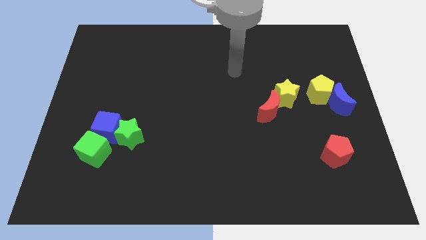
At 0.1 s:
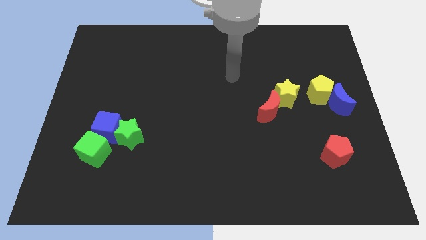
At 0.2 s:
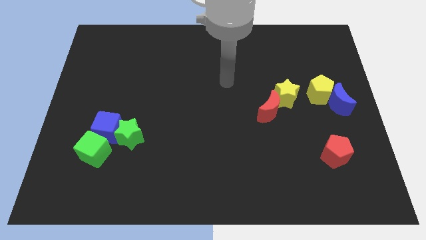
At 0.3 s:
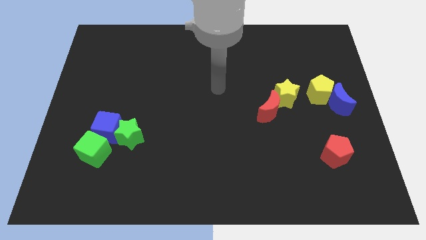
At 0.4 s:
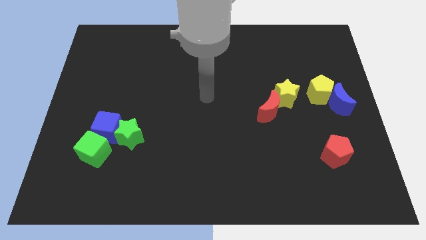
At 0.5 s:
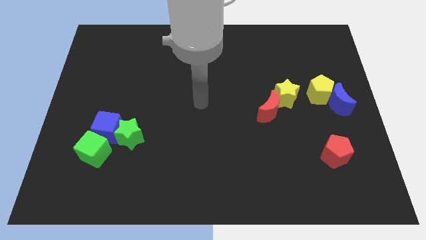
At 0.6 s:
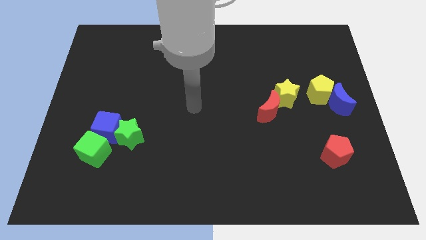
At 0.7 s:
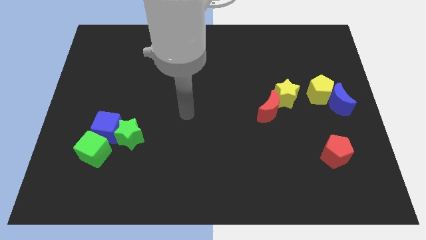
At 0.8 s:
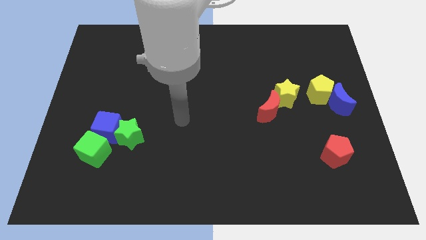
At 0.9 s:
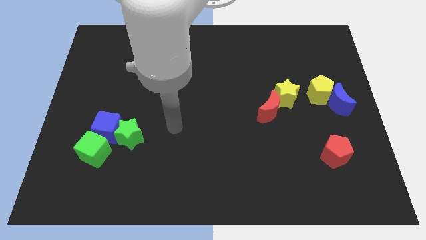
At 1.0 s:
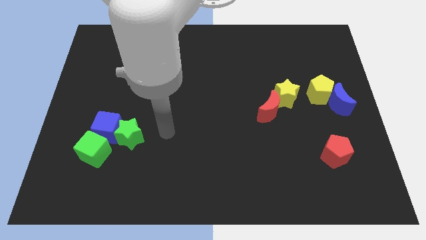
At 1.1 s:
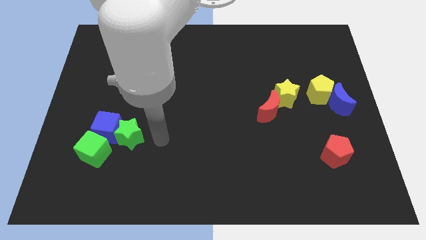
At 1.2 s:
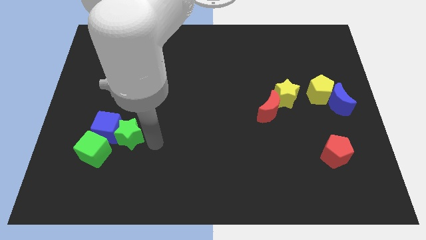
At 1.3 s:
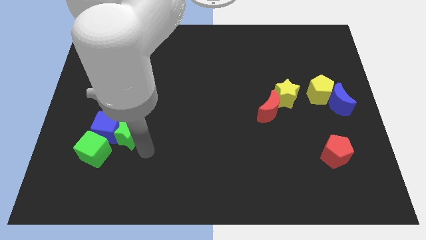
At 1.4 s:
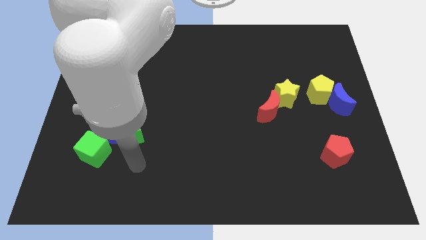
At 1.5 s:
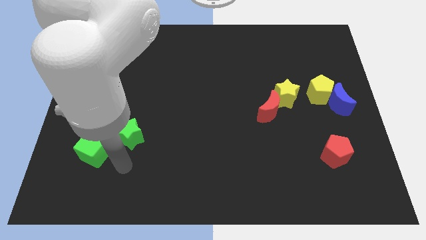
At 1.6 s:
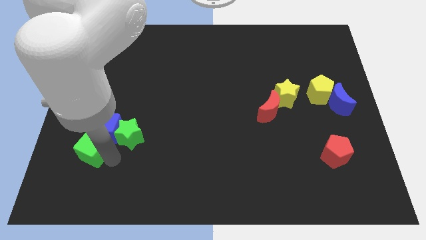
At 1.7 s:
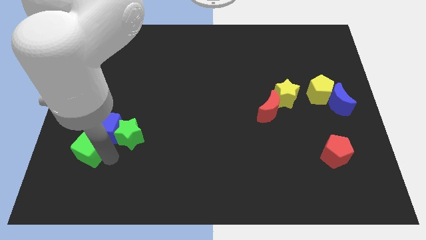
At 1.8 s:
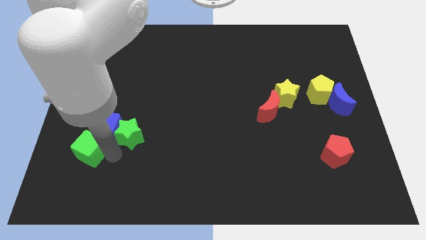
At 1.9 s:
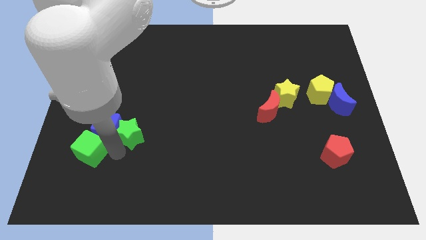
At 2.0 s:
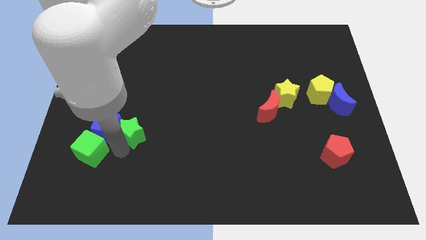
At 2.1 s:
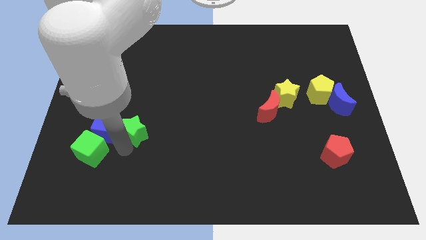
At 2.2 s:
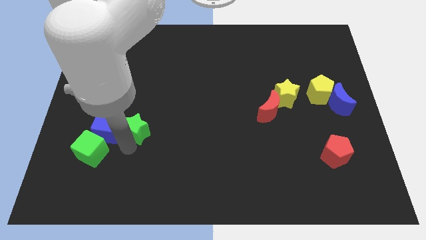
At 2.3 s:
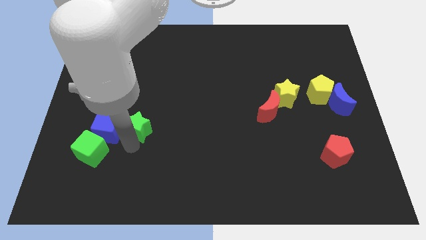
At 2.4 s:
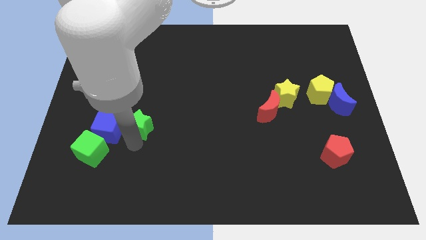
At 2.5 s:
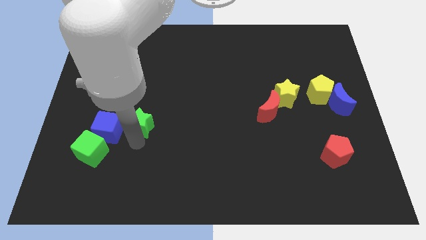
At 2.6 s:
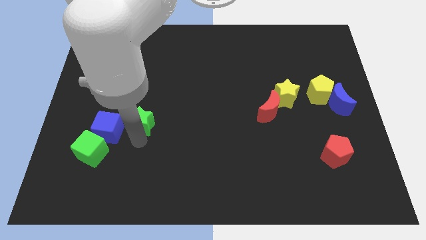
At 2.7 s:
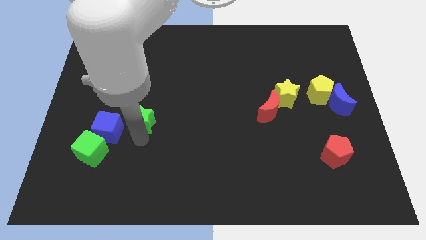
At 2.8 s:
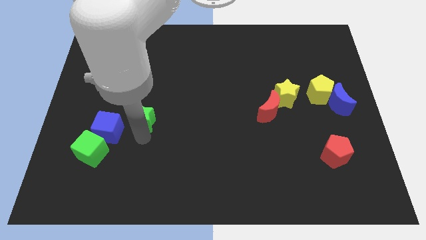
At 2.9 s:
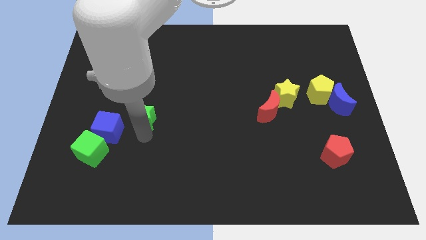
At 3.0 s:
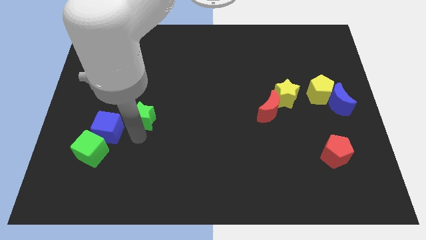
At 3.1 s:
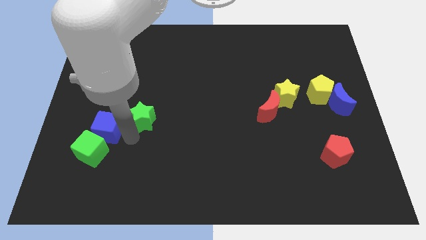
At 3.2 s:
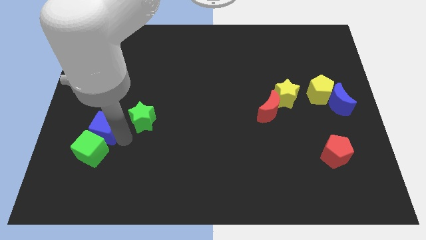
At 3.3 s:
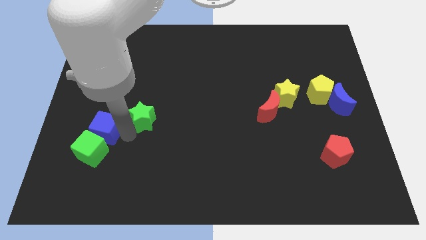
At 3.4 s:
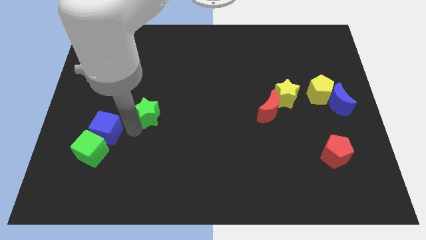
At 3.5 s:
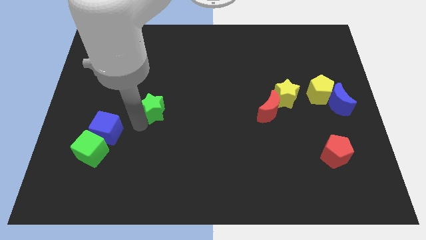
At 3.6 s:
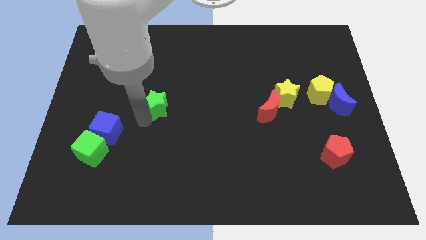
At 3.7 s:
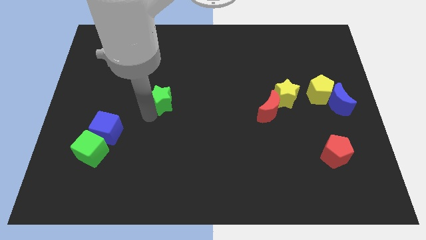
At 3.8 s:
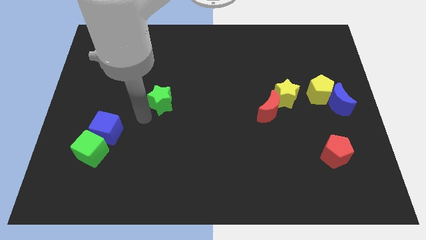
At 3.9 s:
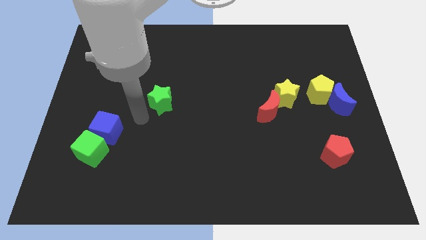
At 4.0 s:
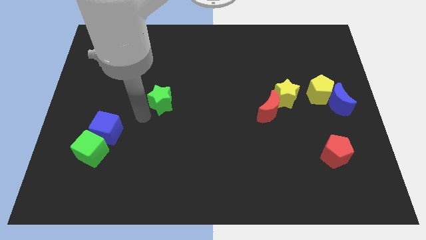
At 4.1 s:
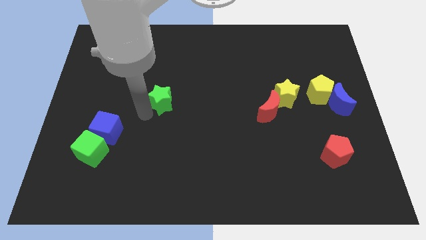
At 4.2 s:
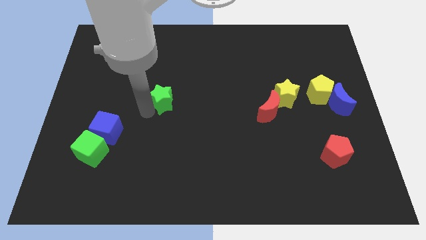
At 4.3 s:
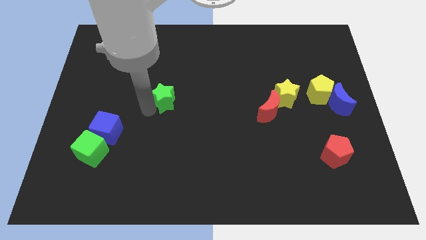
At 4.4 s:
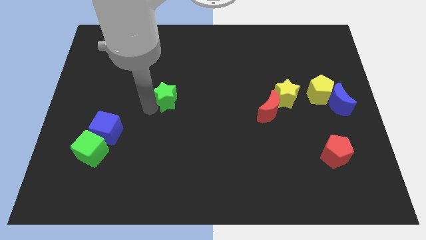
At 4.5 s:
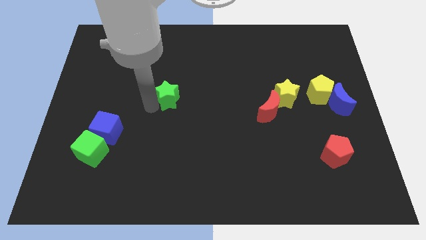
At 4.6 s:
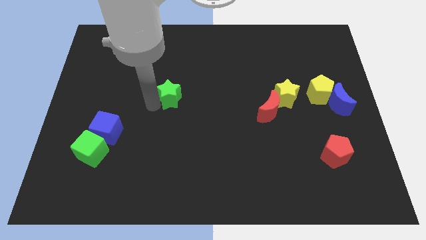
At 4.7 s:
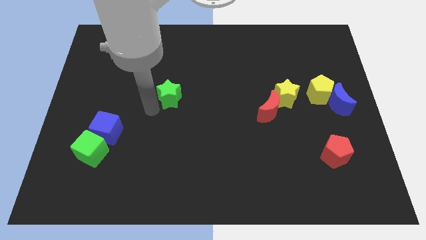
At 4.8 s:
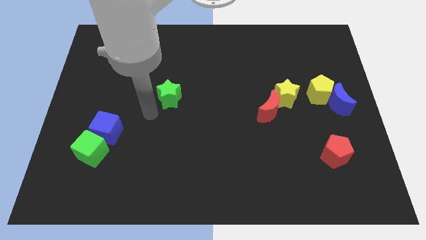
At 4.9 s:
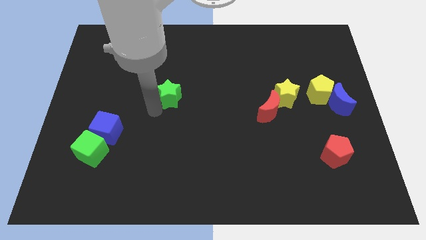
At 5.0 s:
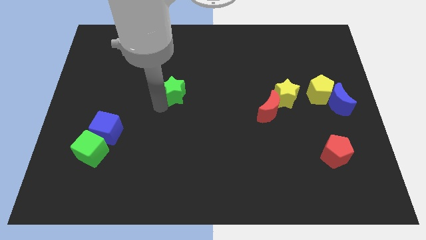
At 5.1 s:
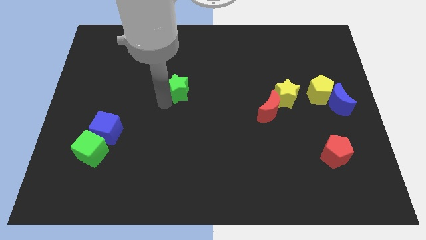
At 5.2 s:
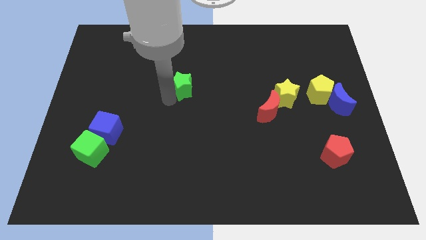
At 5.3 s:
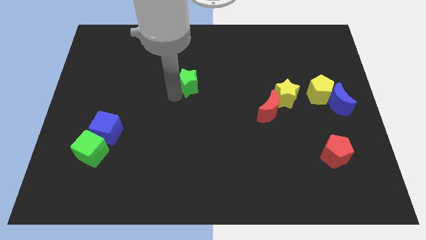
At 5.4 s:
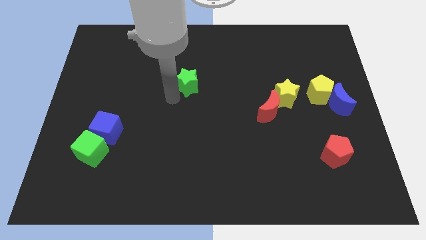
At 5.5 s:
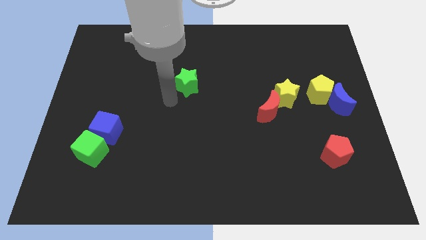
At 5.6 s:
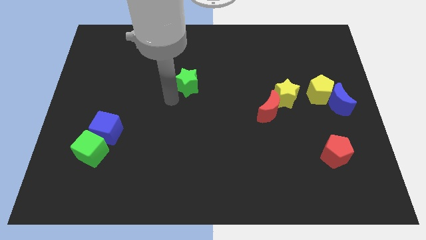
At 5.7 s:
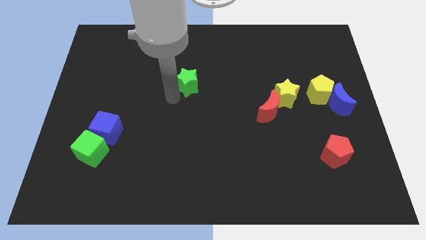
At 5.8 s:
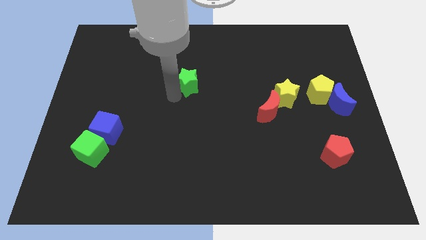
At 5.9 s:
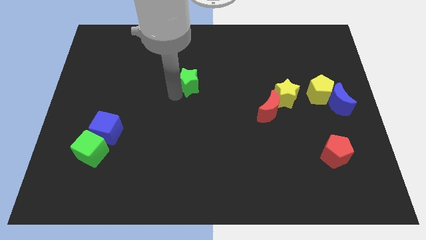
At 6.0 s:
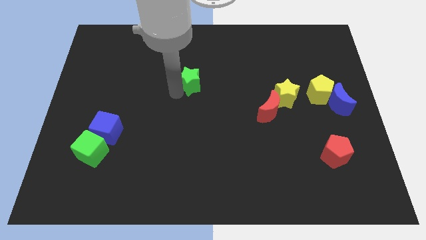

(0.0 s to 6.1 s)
move the green star upwards and then to the right

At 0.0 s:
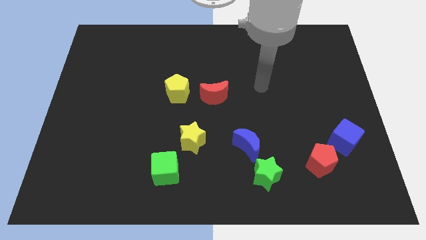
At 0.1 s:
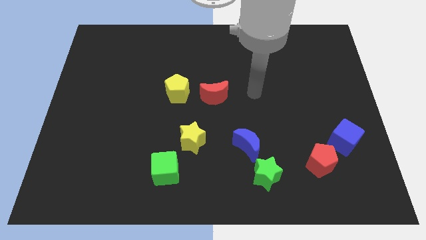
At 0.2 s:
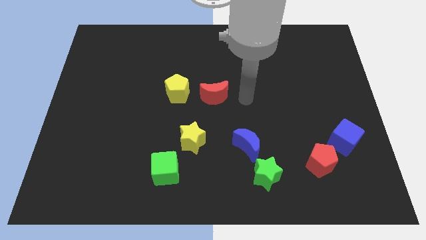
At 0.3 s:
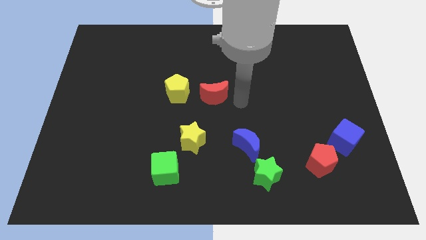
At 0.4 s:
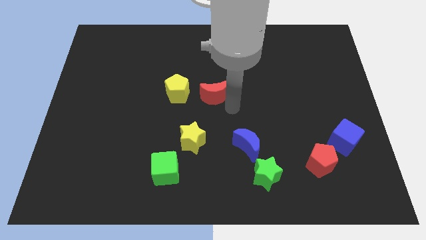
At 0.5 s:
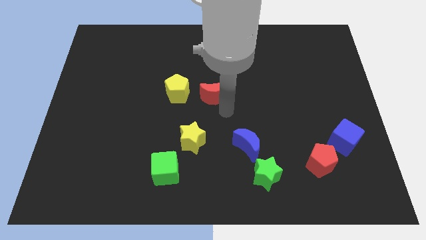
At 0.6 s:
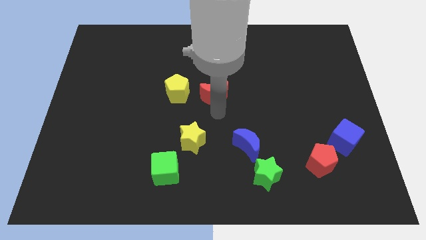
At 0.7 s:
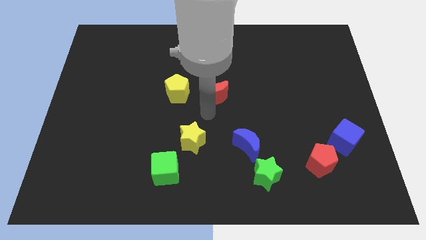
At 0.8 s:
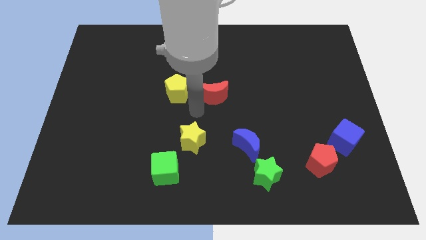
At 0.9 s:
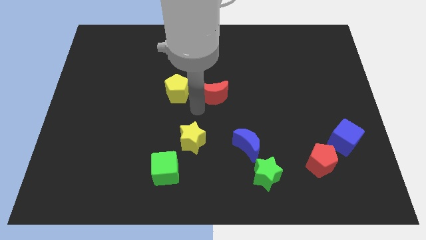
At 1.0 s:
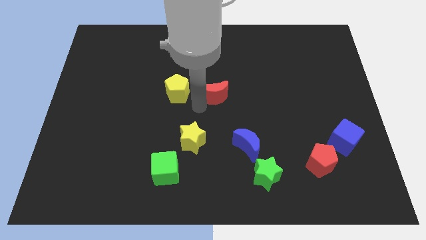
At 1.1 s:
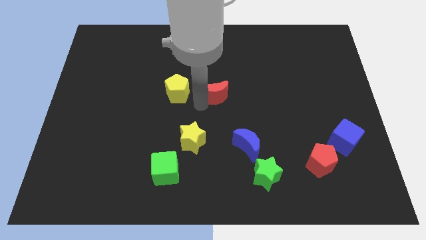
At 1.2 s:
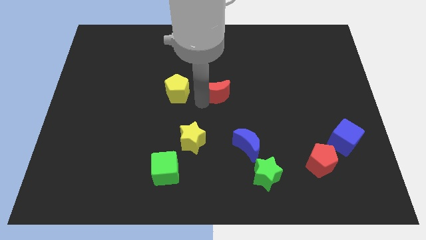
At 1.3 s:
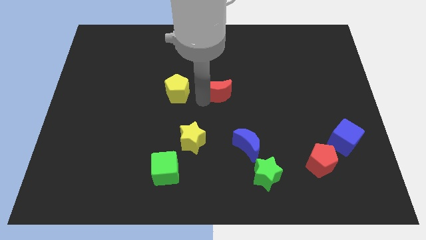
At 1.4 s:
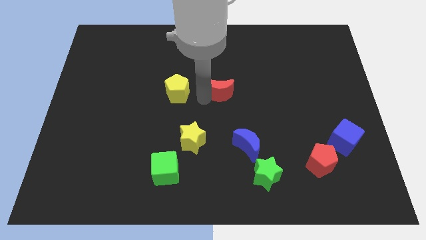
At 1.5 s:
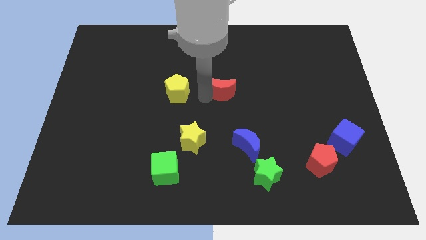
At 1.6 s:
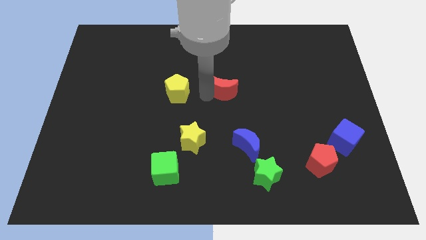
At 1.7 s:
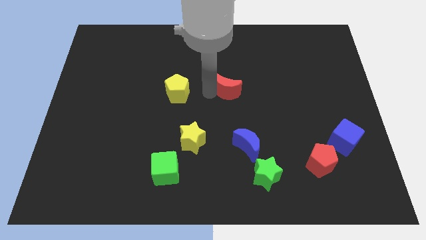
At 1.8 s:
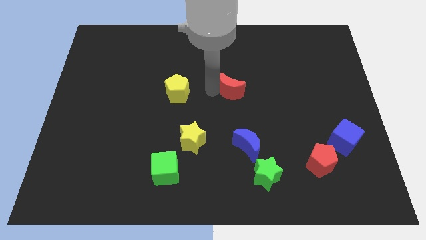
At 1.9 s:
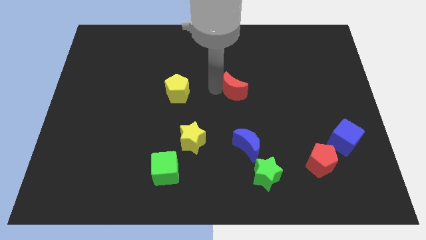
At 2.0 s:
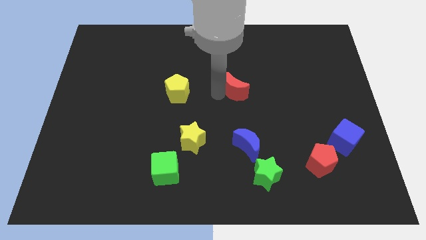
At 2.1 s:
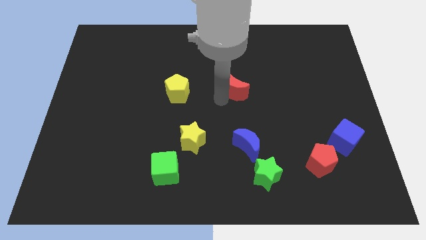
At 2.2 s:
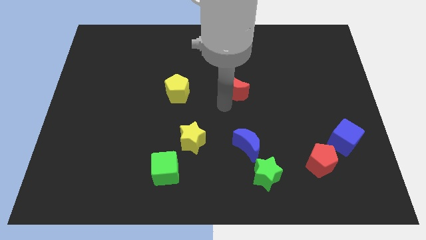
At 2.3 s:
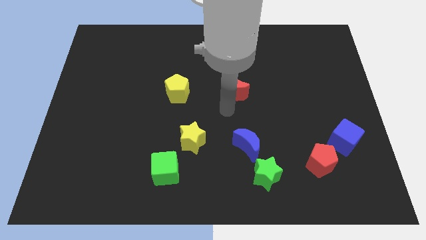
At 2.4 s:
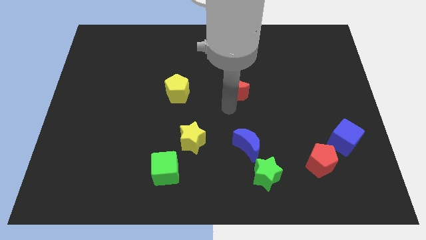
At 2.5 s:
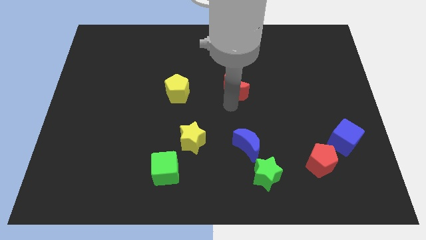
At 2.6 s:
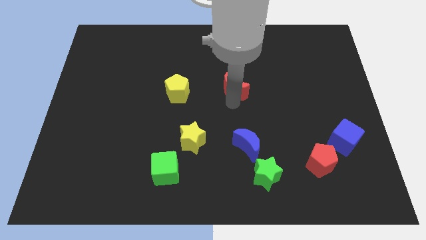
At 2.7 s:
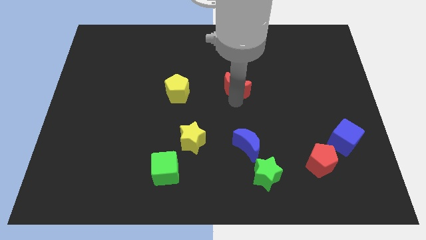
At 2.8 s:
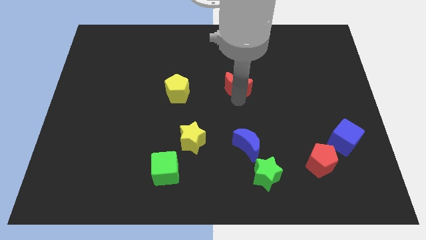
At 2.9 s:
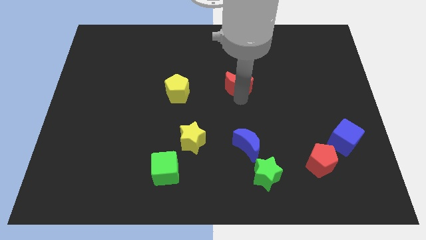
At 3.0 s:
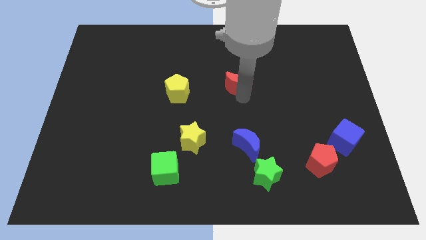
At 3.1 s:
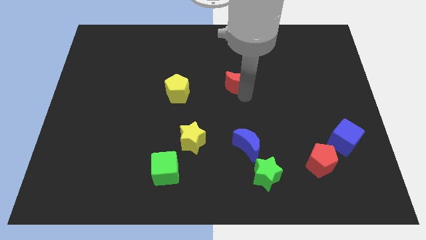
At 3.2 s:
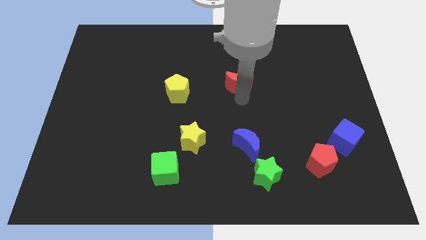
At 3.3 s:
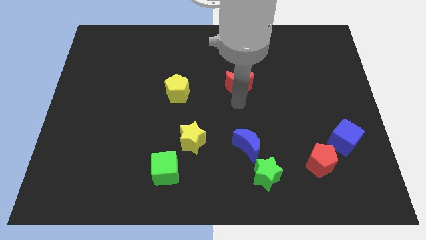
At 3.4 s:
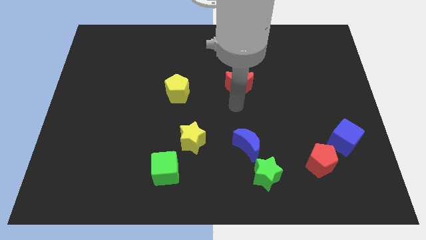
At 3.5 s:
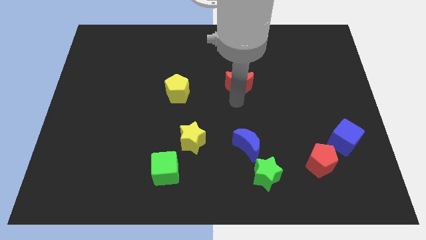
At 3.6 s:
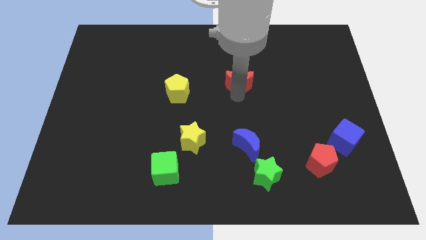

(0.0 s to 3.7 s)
slightly push the red moon upwards and to the right
